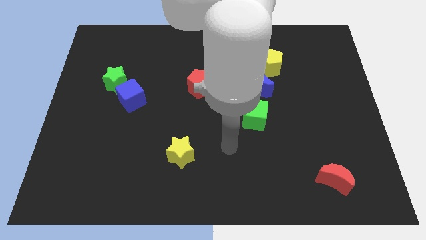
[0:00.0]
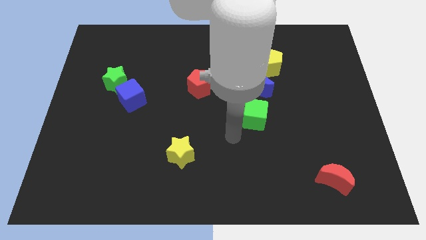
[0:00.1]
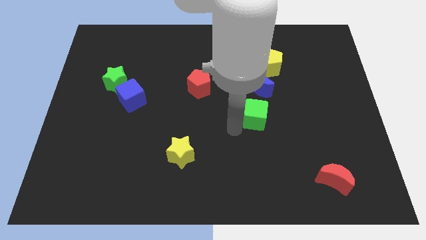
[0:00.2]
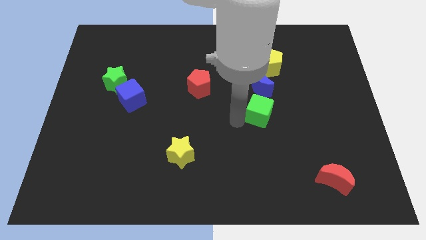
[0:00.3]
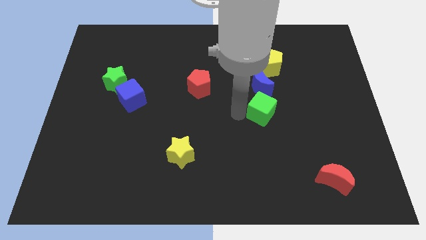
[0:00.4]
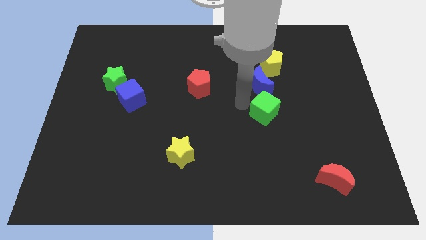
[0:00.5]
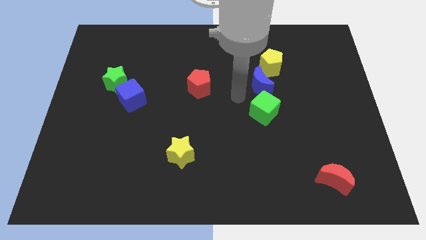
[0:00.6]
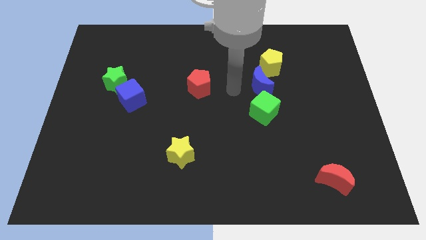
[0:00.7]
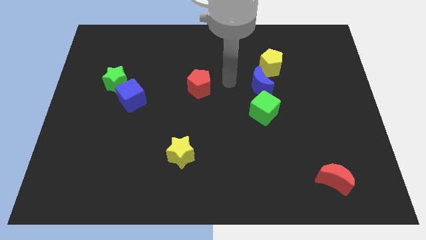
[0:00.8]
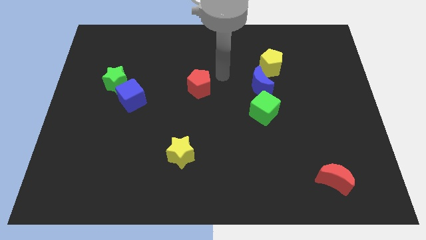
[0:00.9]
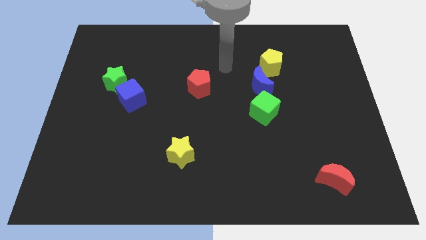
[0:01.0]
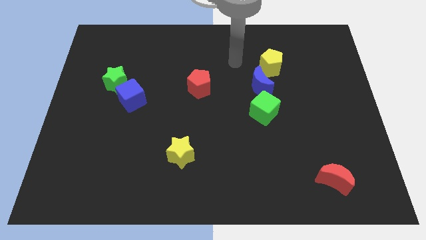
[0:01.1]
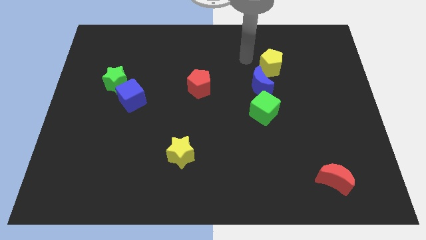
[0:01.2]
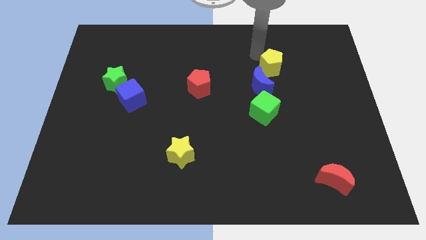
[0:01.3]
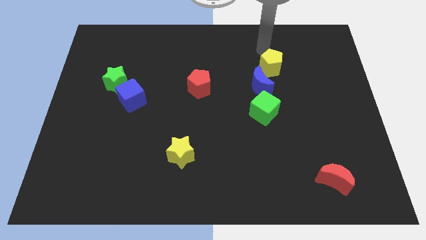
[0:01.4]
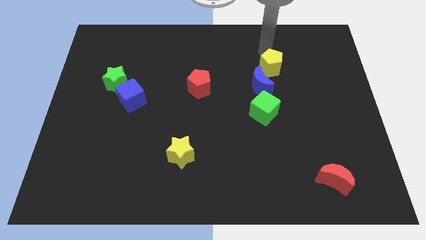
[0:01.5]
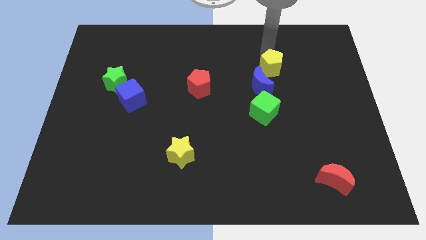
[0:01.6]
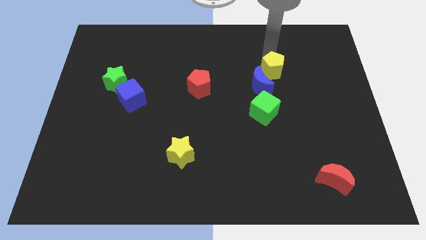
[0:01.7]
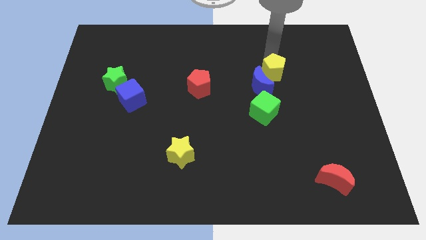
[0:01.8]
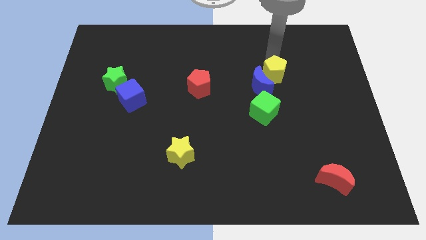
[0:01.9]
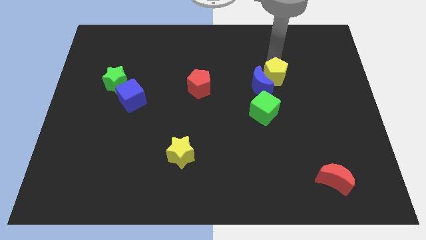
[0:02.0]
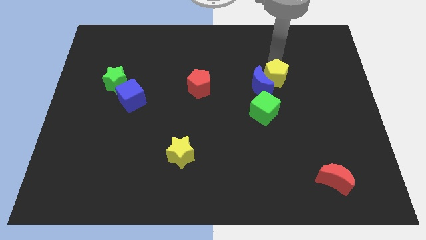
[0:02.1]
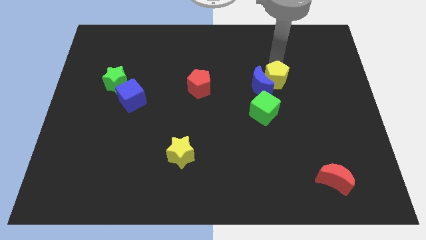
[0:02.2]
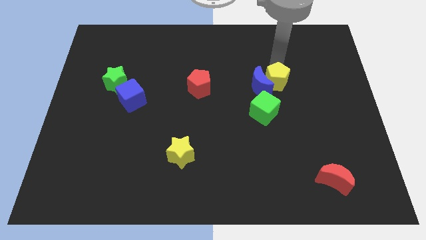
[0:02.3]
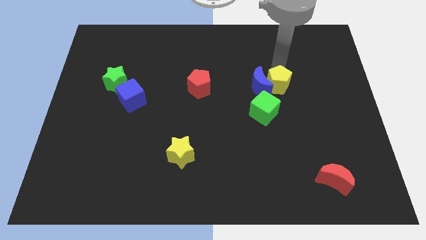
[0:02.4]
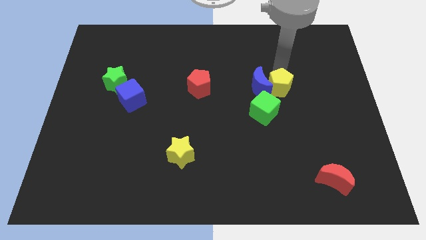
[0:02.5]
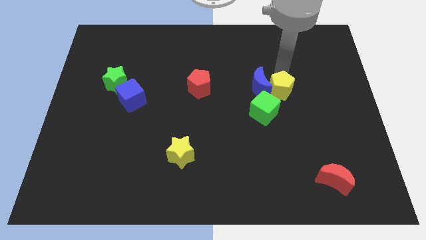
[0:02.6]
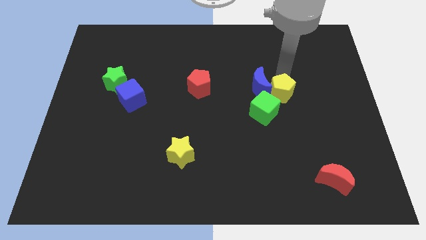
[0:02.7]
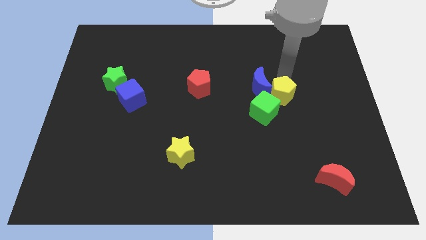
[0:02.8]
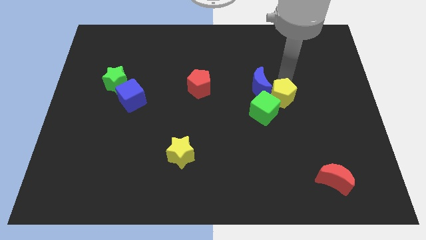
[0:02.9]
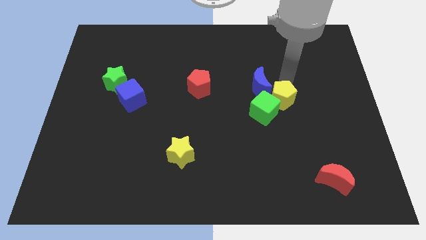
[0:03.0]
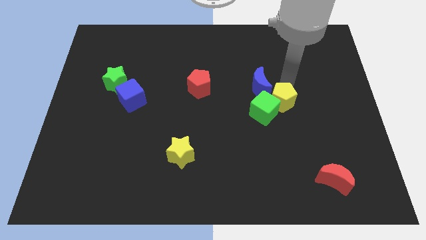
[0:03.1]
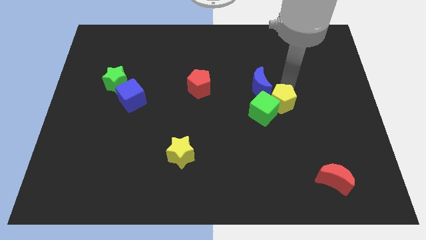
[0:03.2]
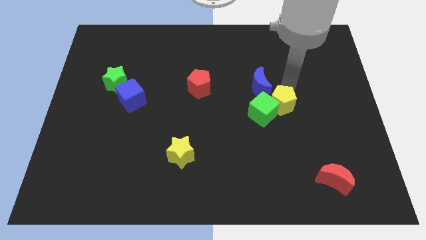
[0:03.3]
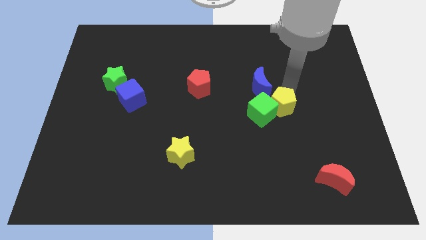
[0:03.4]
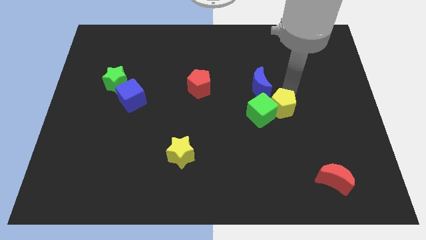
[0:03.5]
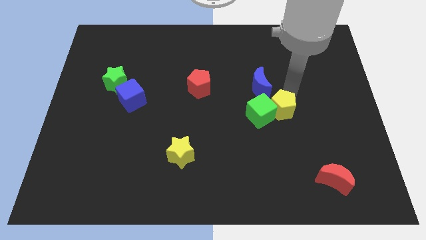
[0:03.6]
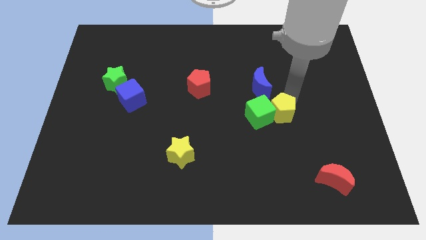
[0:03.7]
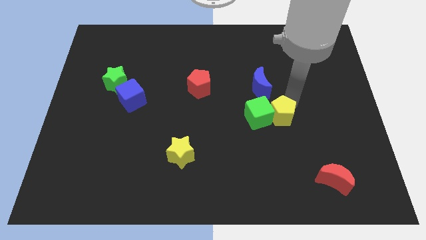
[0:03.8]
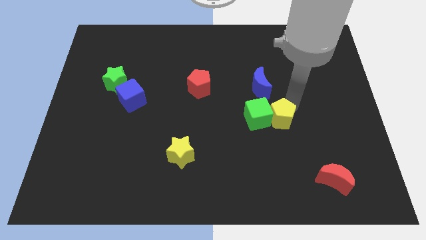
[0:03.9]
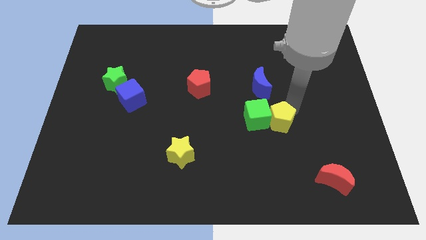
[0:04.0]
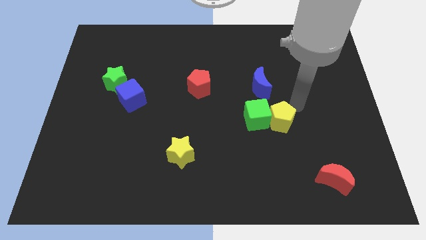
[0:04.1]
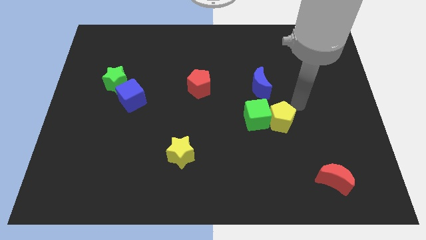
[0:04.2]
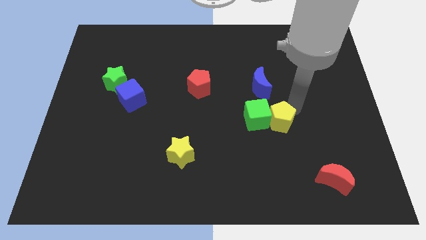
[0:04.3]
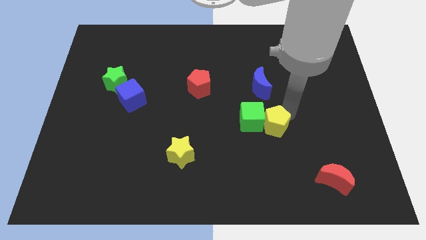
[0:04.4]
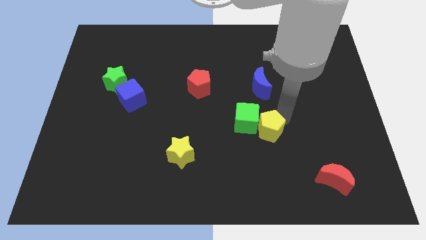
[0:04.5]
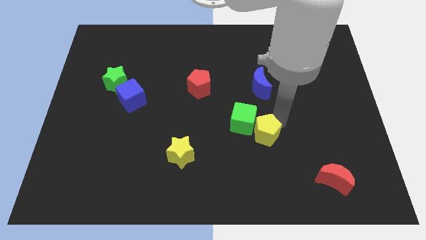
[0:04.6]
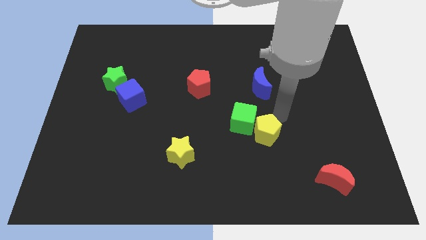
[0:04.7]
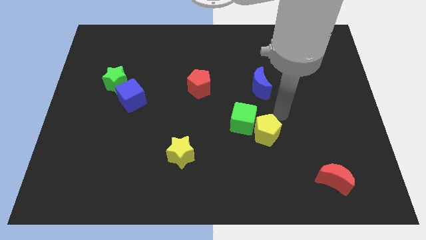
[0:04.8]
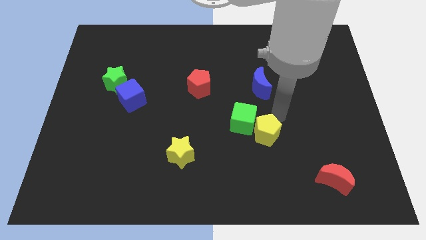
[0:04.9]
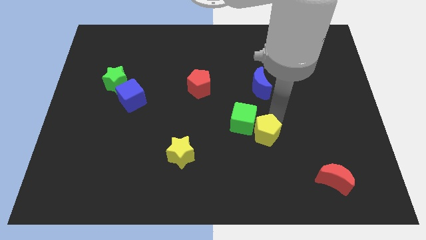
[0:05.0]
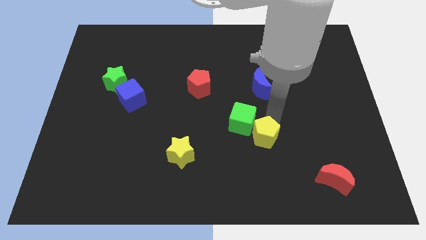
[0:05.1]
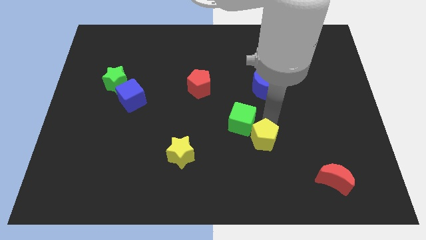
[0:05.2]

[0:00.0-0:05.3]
move the yellow pentagon below the green cube

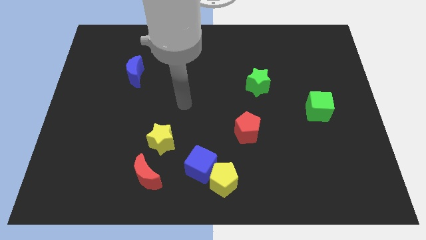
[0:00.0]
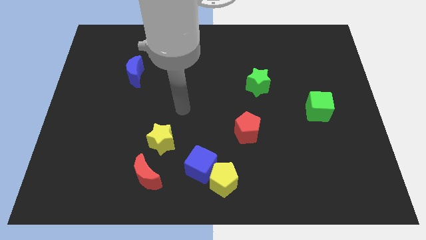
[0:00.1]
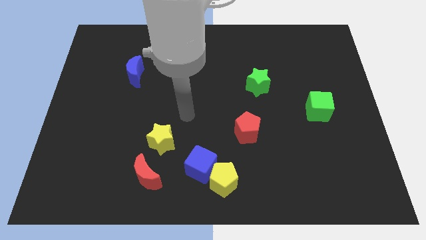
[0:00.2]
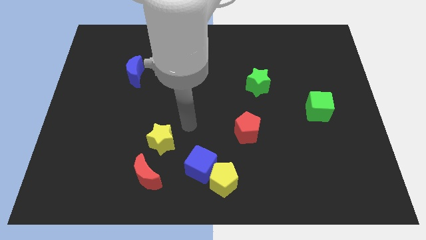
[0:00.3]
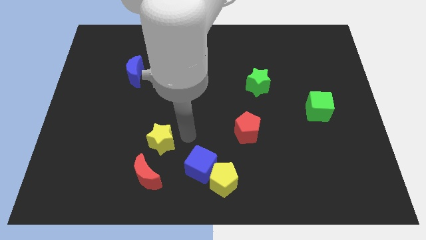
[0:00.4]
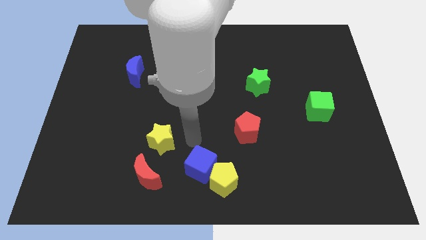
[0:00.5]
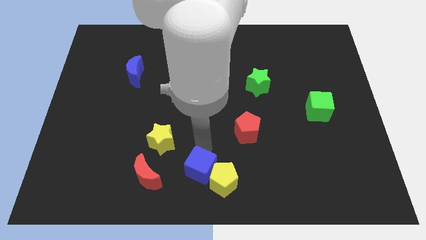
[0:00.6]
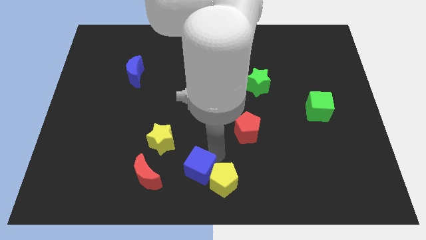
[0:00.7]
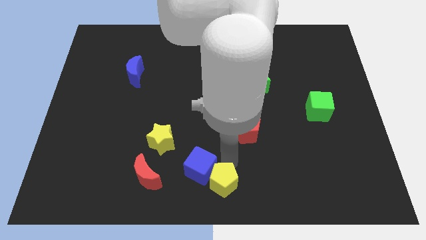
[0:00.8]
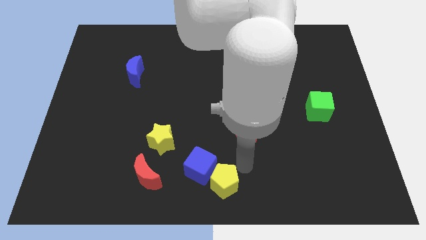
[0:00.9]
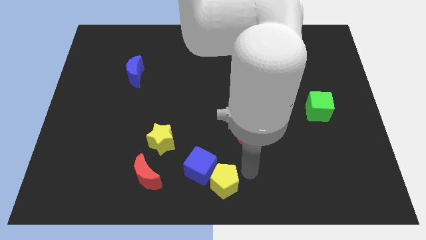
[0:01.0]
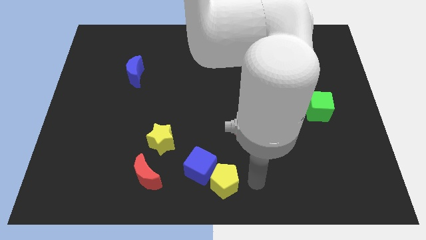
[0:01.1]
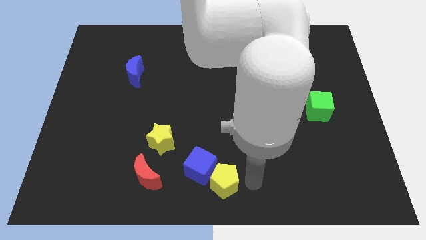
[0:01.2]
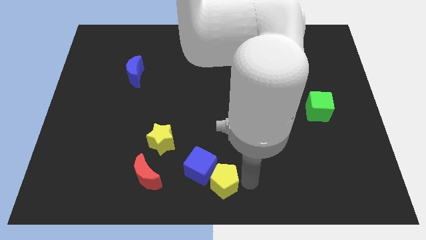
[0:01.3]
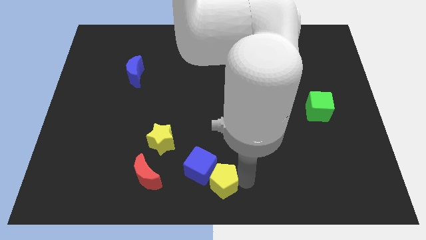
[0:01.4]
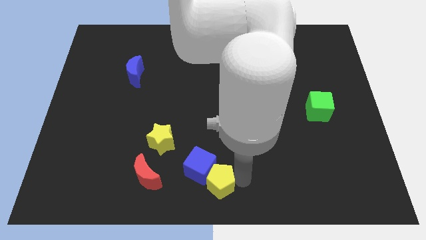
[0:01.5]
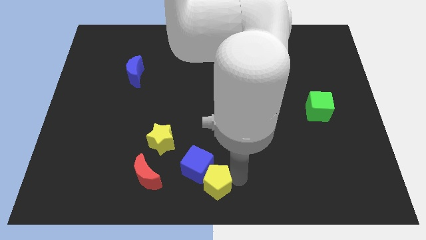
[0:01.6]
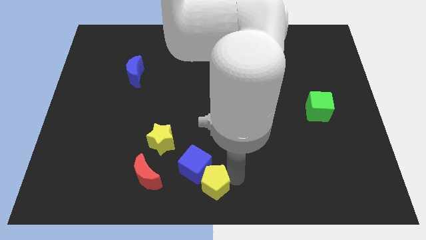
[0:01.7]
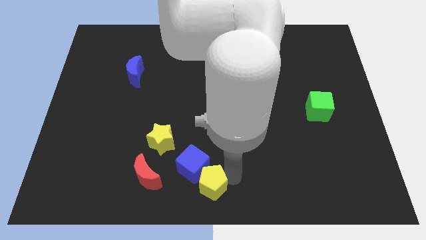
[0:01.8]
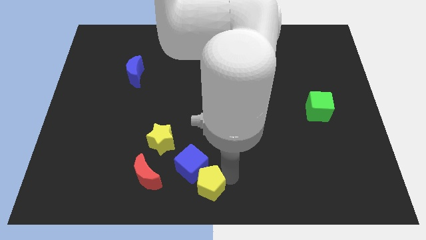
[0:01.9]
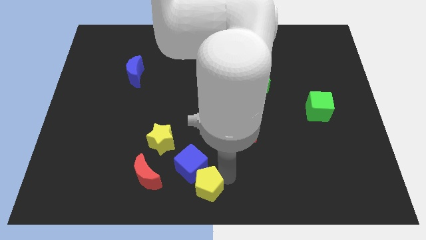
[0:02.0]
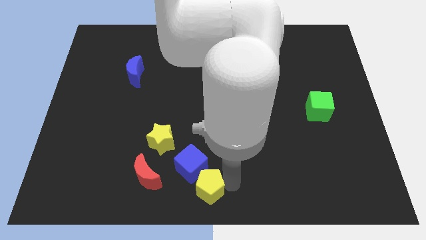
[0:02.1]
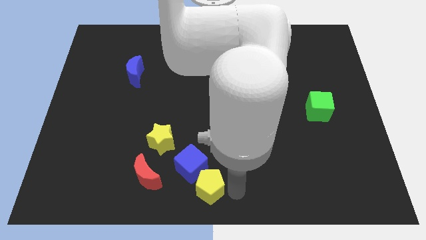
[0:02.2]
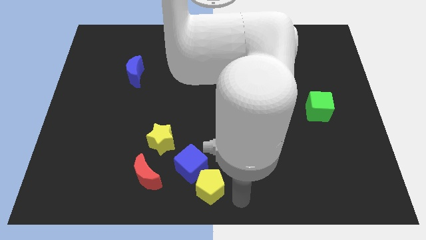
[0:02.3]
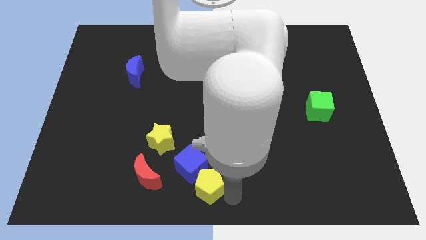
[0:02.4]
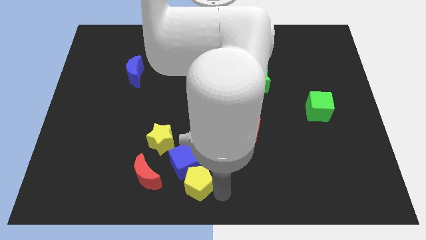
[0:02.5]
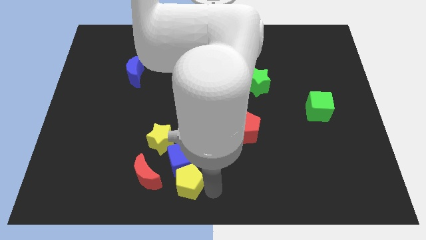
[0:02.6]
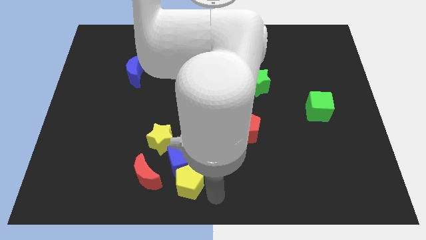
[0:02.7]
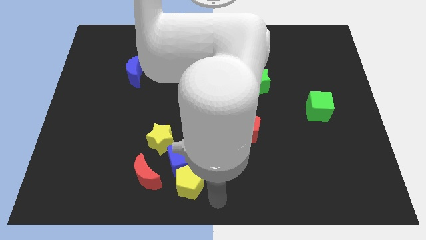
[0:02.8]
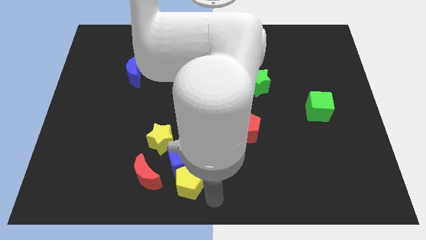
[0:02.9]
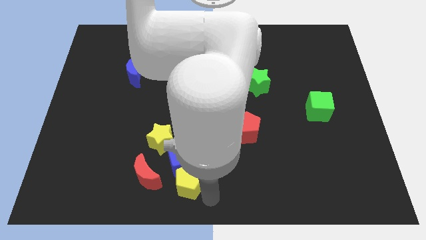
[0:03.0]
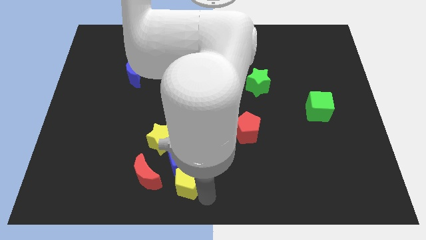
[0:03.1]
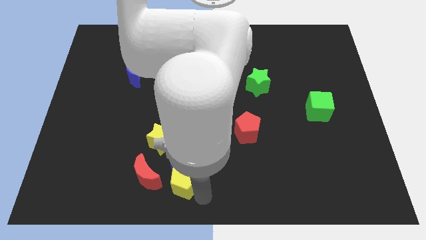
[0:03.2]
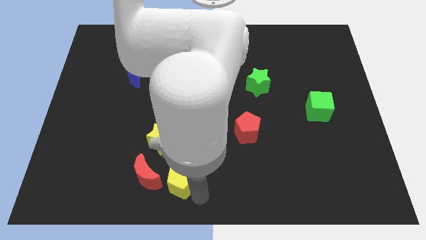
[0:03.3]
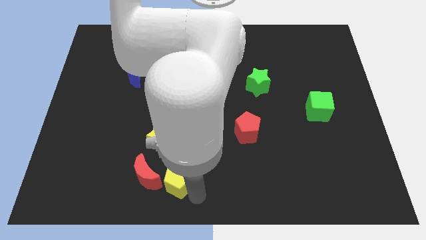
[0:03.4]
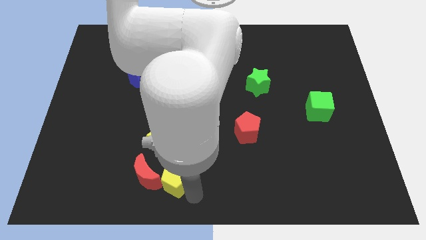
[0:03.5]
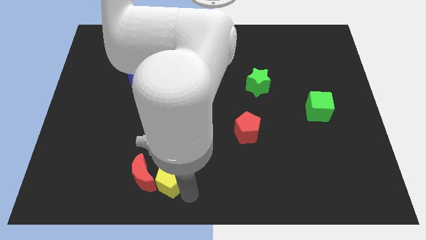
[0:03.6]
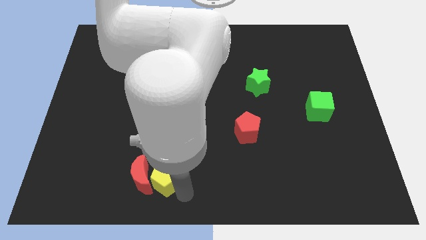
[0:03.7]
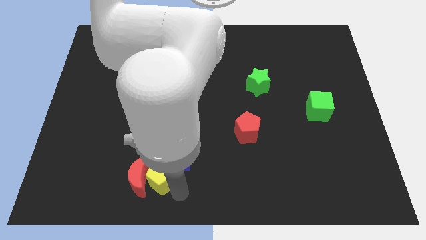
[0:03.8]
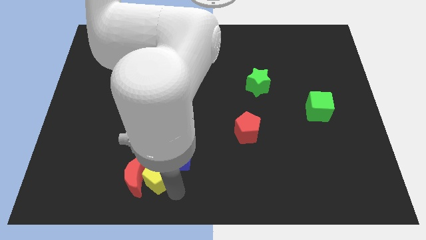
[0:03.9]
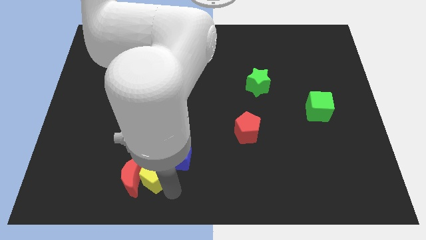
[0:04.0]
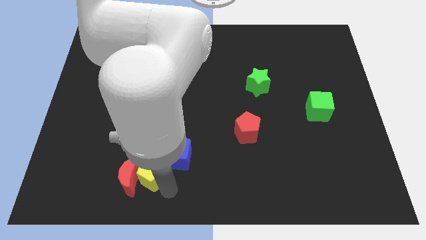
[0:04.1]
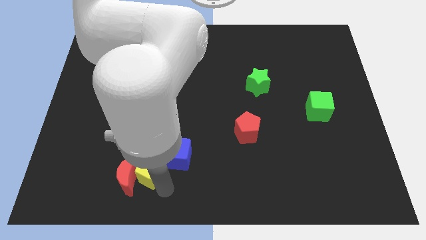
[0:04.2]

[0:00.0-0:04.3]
move the yellow pentagon diagonally down and to the left of the yellow star
